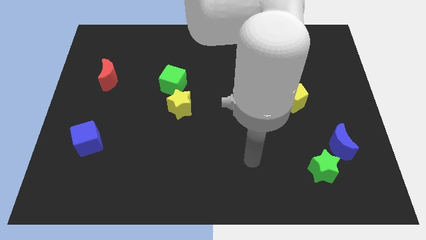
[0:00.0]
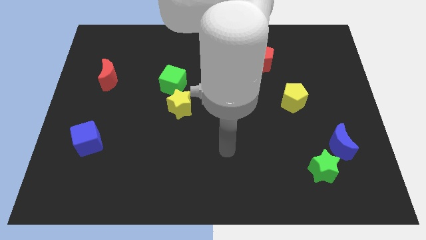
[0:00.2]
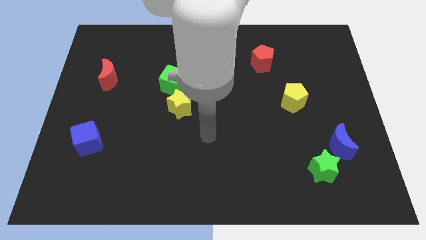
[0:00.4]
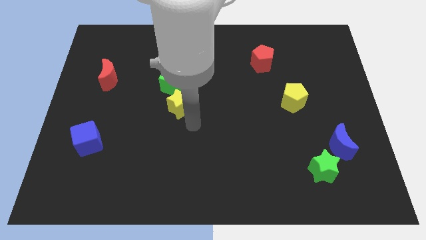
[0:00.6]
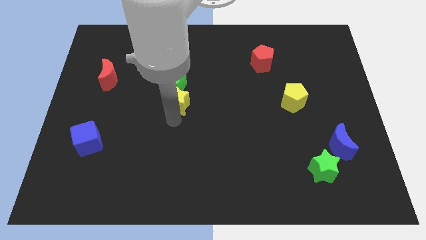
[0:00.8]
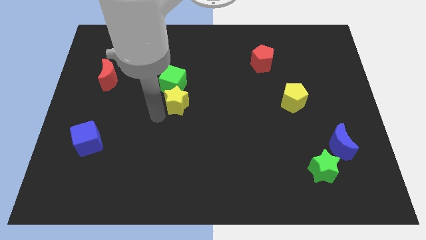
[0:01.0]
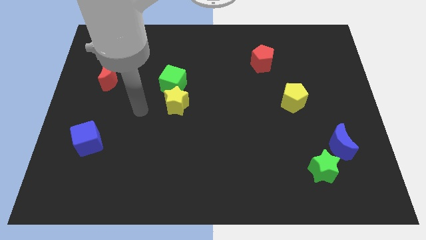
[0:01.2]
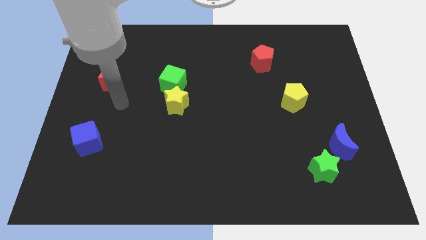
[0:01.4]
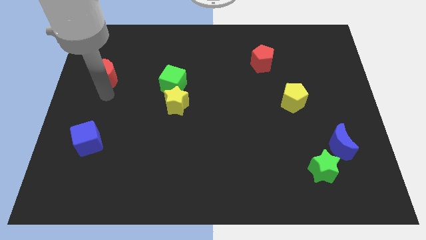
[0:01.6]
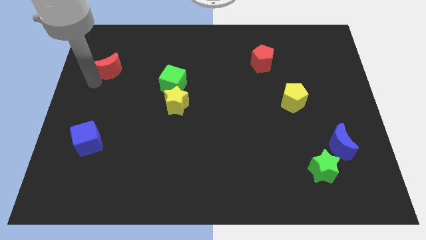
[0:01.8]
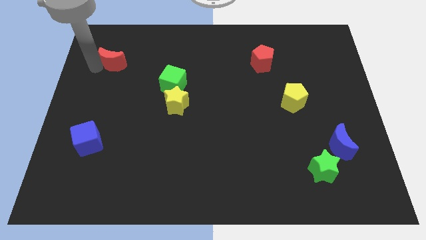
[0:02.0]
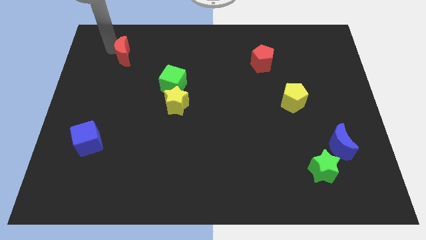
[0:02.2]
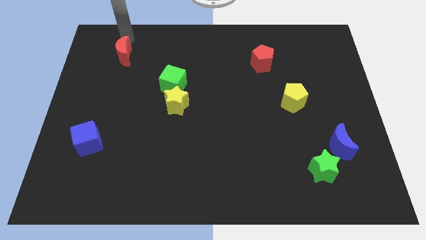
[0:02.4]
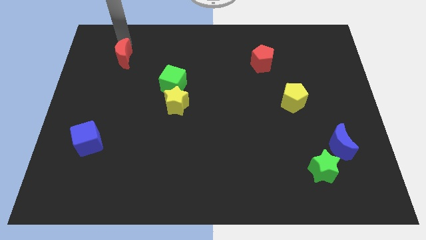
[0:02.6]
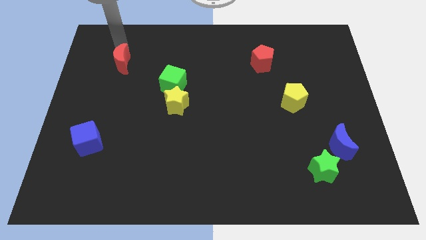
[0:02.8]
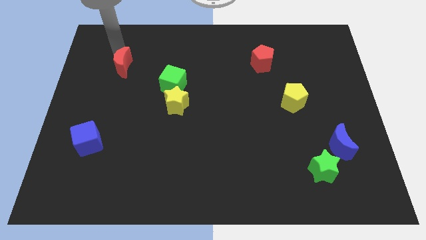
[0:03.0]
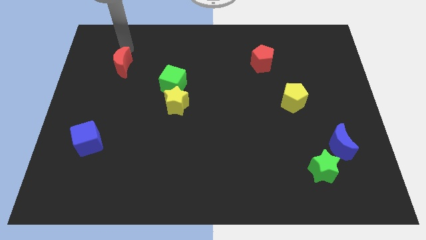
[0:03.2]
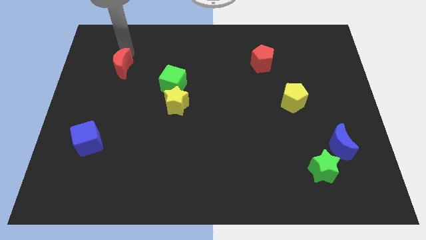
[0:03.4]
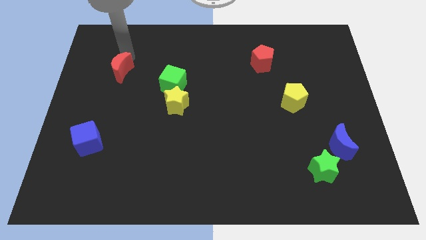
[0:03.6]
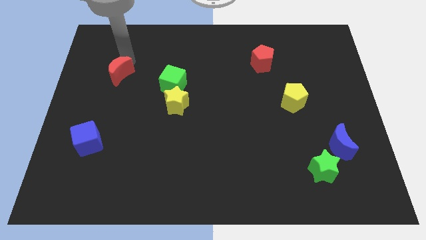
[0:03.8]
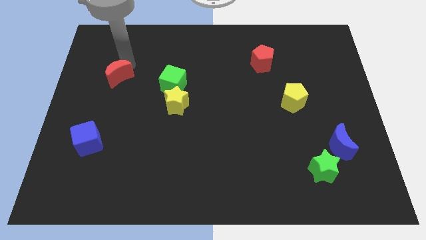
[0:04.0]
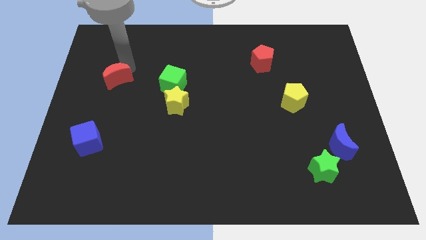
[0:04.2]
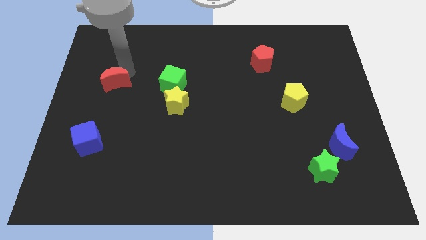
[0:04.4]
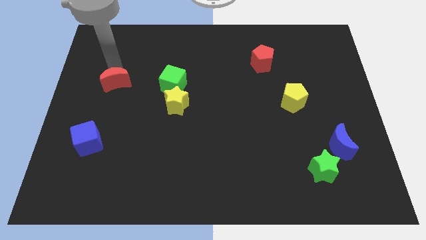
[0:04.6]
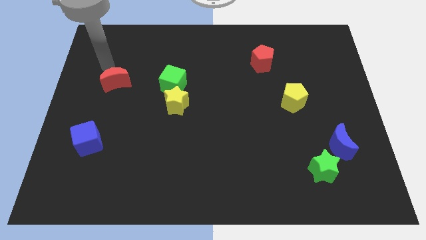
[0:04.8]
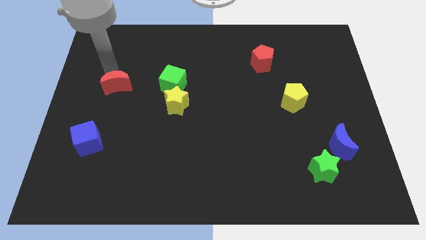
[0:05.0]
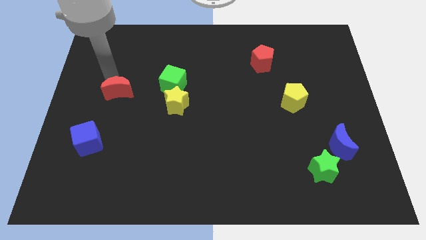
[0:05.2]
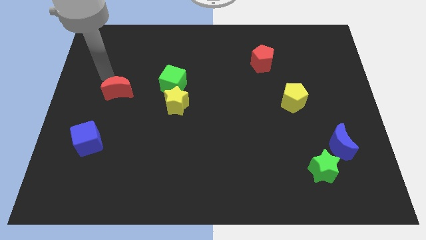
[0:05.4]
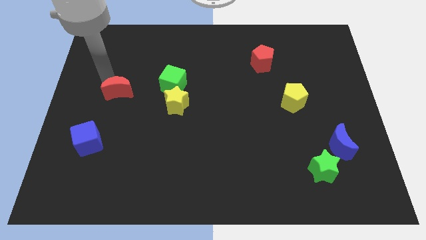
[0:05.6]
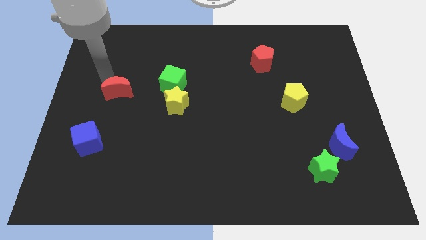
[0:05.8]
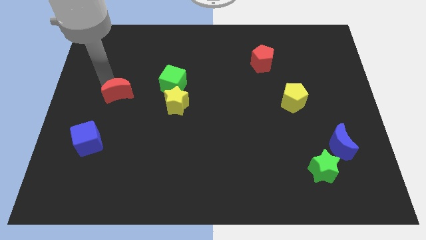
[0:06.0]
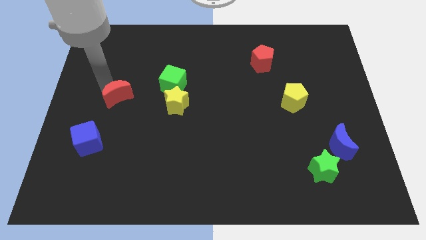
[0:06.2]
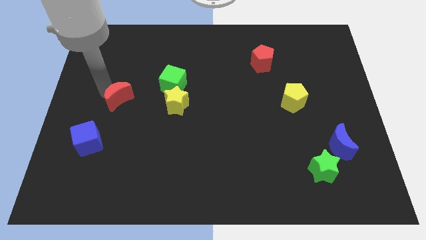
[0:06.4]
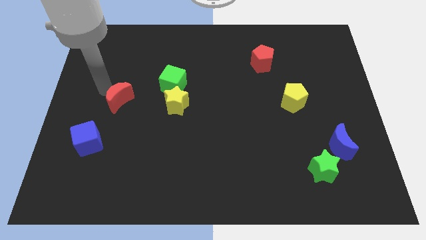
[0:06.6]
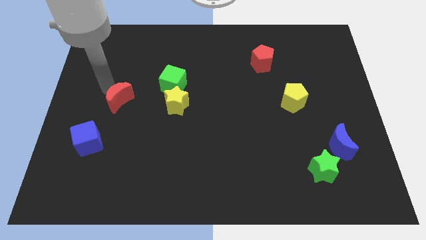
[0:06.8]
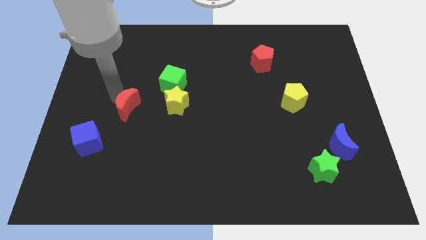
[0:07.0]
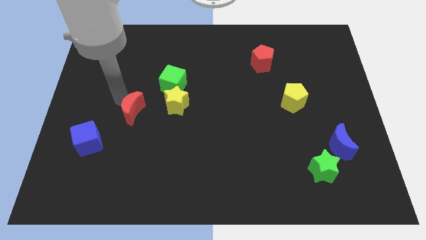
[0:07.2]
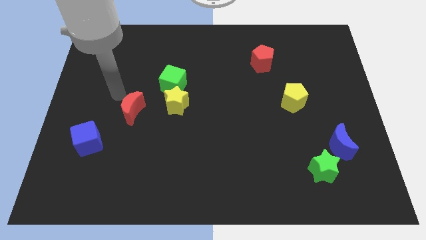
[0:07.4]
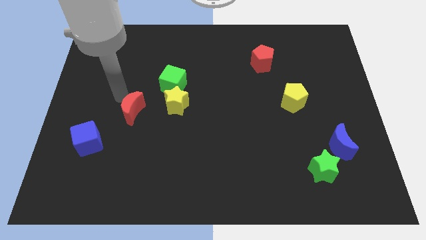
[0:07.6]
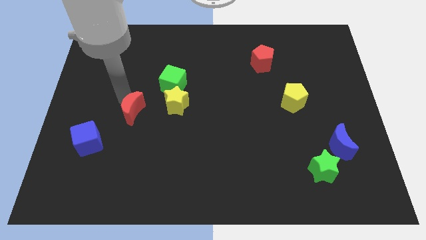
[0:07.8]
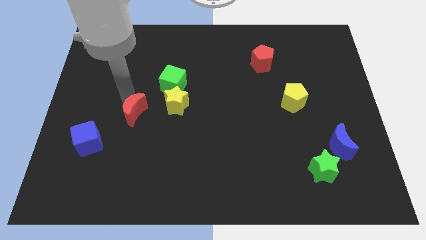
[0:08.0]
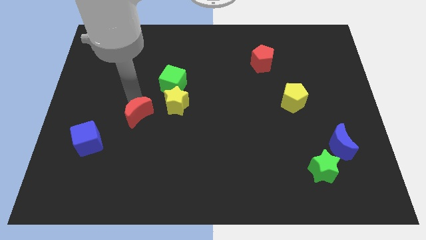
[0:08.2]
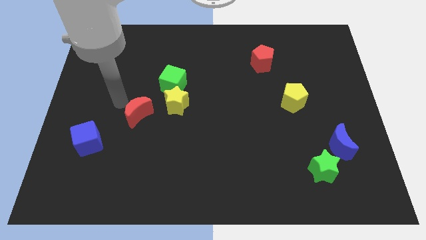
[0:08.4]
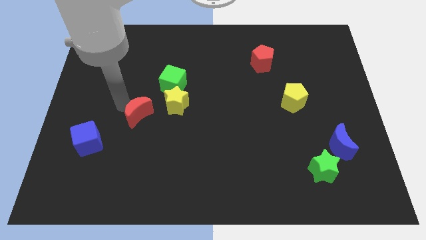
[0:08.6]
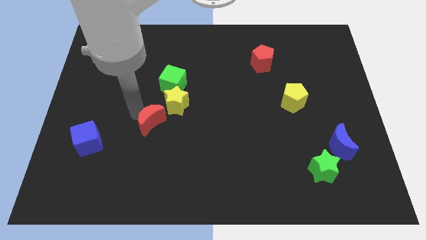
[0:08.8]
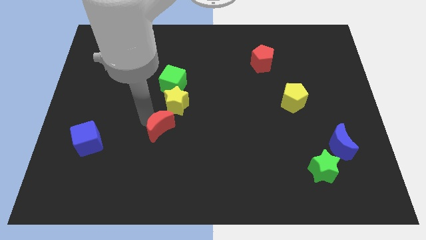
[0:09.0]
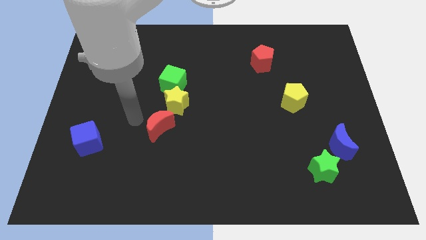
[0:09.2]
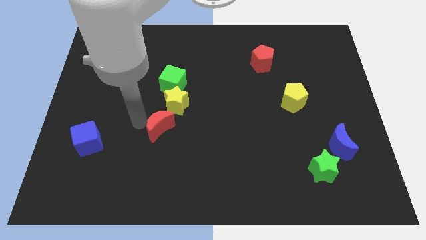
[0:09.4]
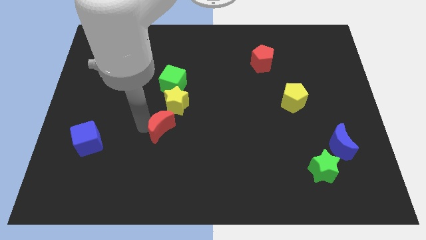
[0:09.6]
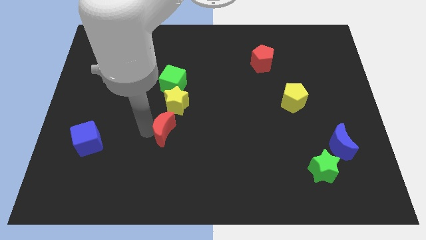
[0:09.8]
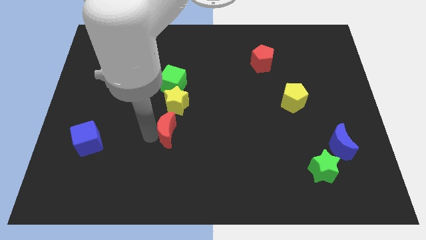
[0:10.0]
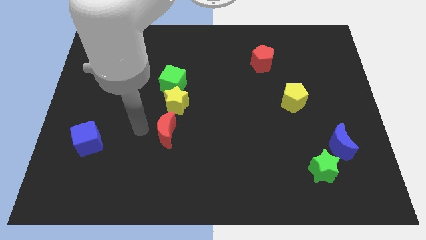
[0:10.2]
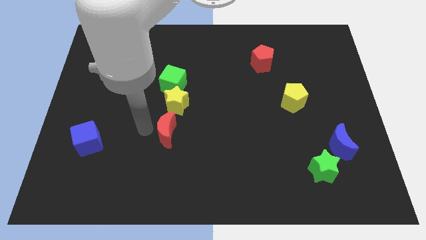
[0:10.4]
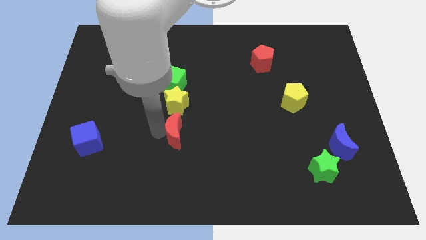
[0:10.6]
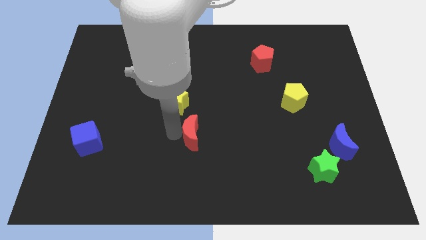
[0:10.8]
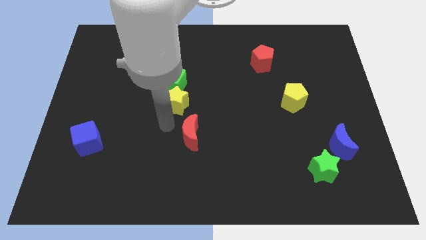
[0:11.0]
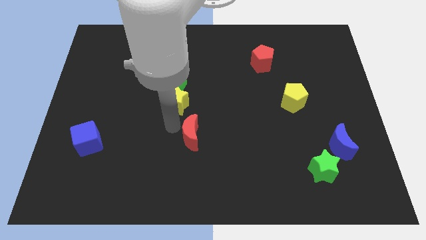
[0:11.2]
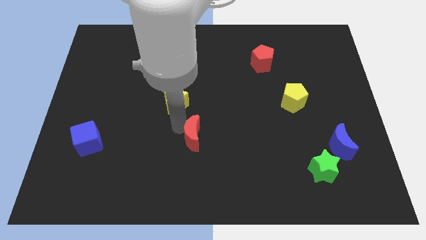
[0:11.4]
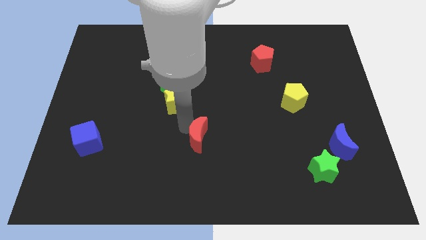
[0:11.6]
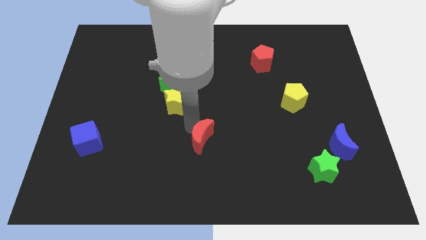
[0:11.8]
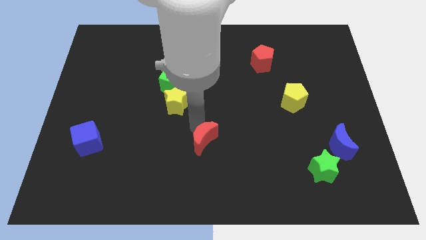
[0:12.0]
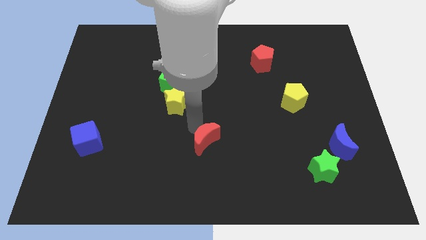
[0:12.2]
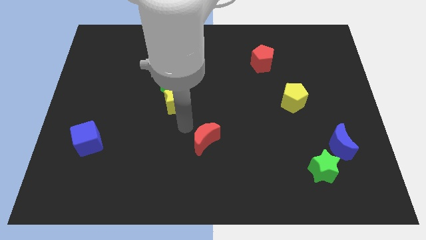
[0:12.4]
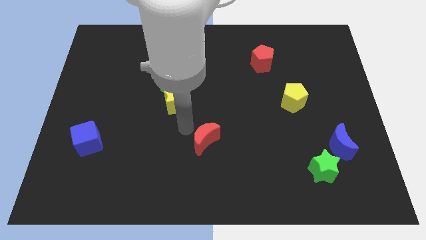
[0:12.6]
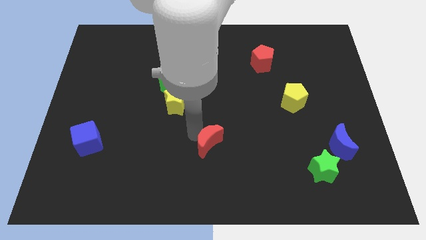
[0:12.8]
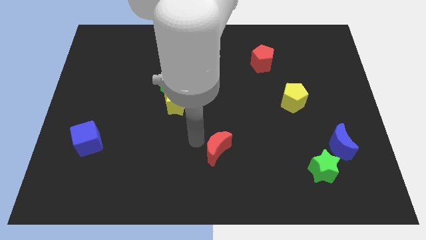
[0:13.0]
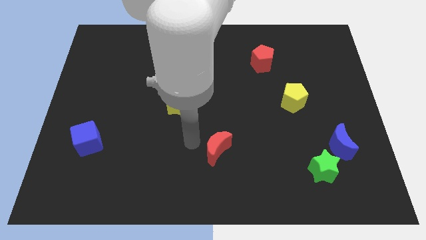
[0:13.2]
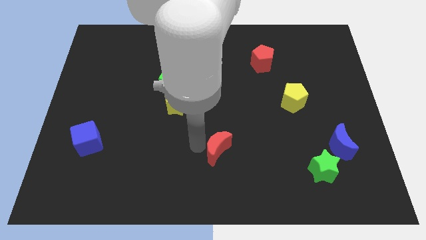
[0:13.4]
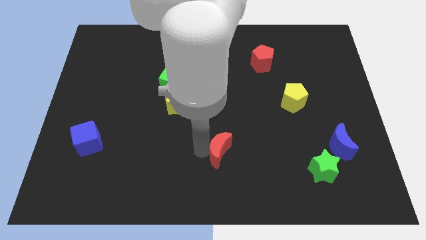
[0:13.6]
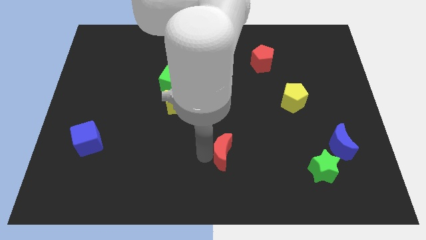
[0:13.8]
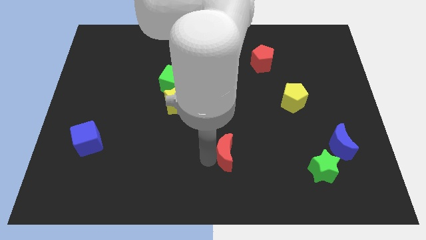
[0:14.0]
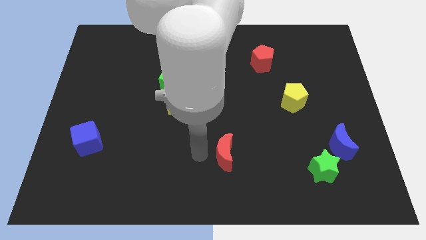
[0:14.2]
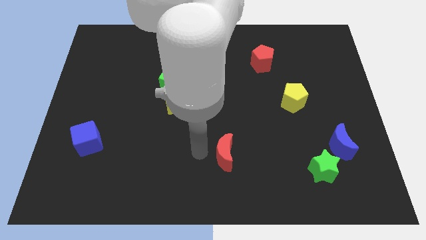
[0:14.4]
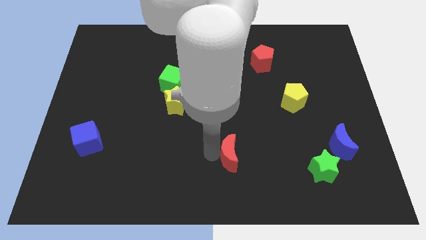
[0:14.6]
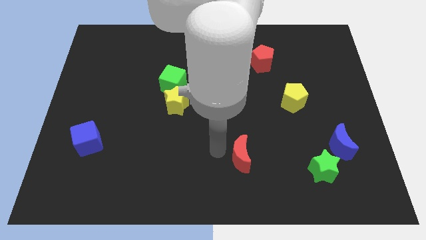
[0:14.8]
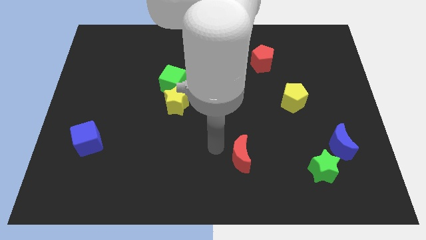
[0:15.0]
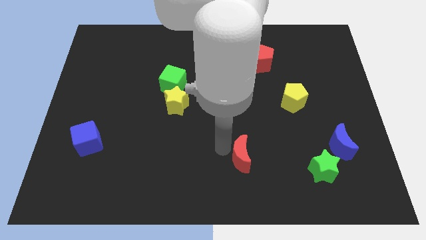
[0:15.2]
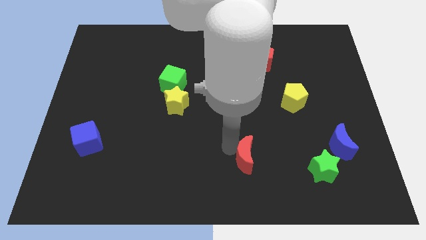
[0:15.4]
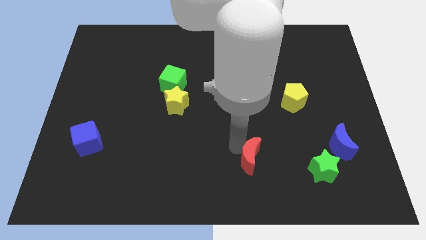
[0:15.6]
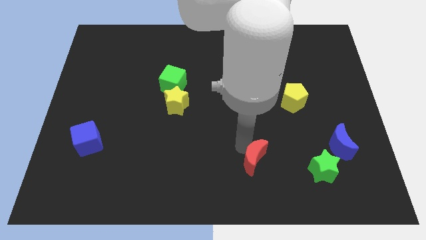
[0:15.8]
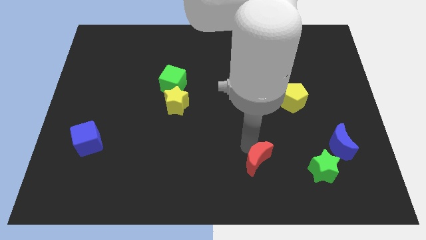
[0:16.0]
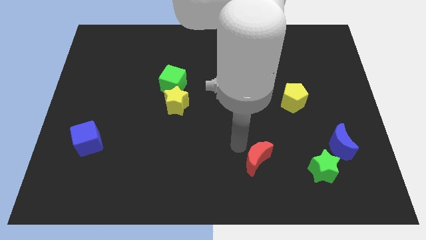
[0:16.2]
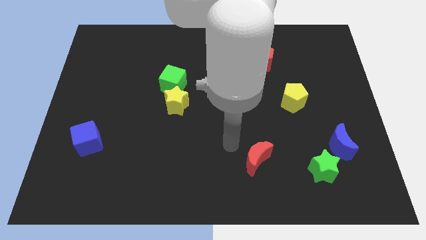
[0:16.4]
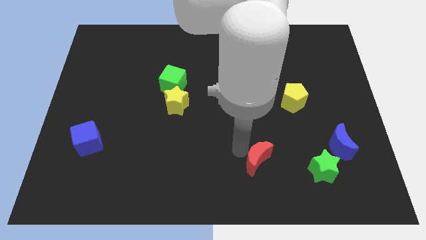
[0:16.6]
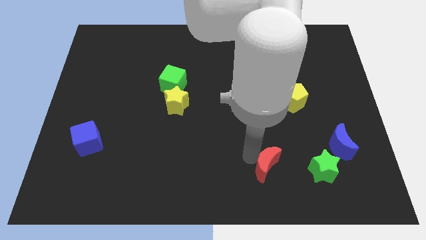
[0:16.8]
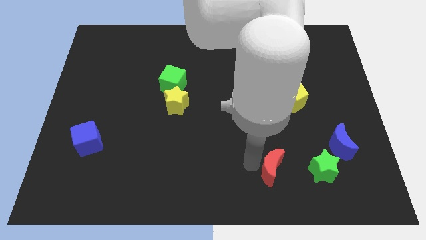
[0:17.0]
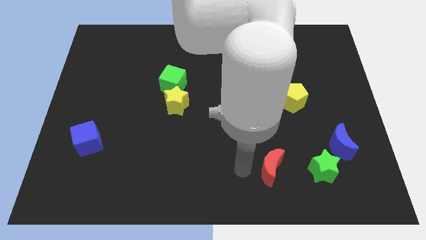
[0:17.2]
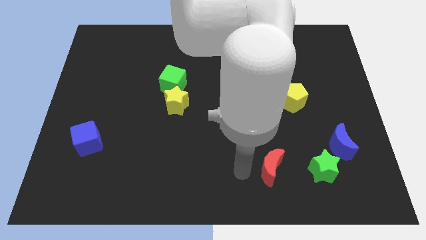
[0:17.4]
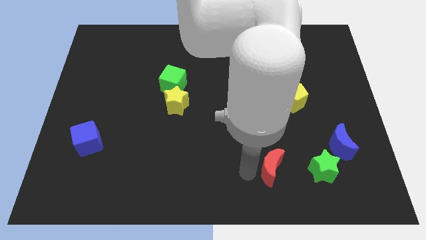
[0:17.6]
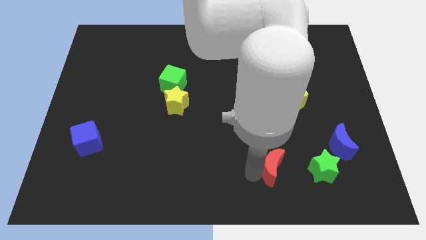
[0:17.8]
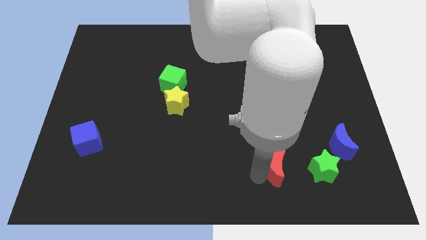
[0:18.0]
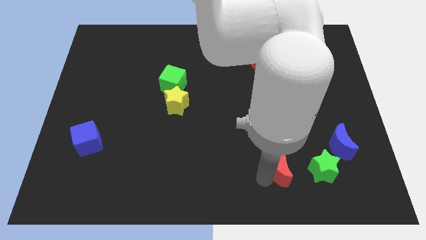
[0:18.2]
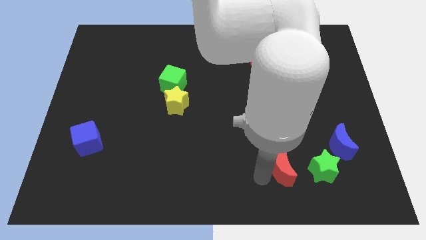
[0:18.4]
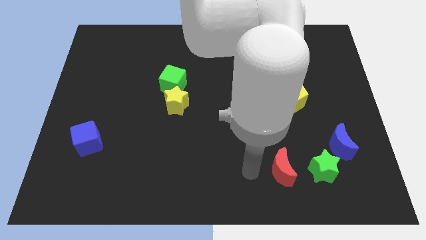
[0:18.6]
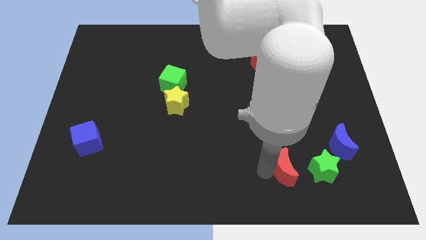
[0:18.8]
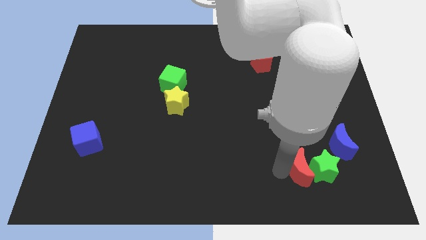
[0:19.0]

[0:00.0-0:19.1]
slide the red moon to the green star
